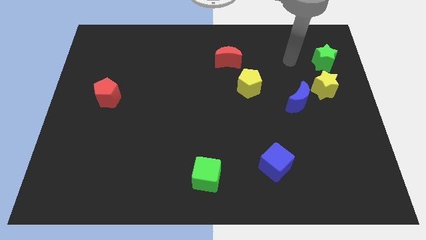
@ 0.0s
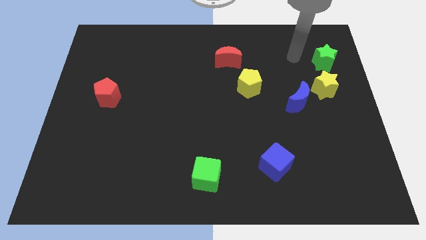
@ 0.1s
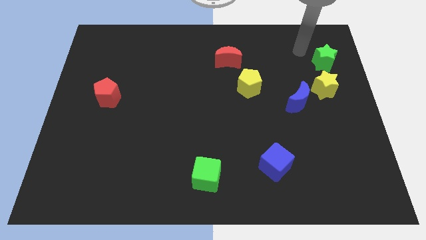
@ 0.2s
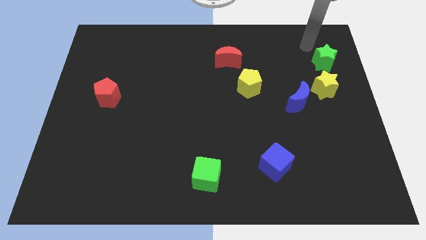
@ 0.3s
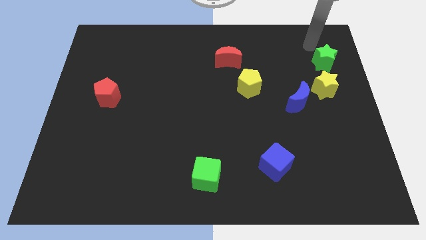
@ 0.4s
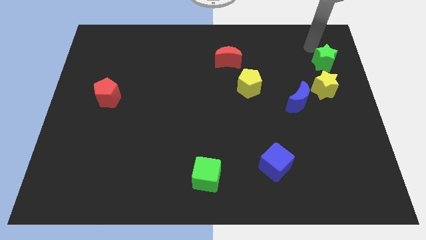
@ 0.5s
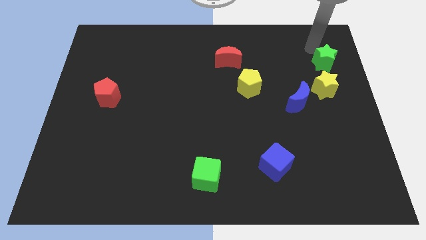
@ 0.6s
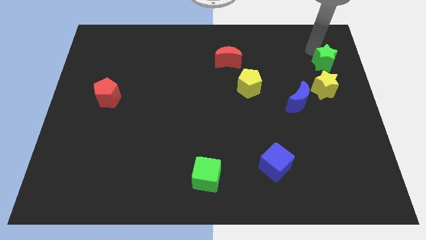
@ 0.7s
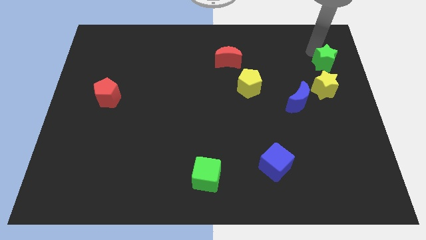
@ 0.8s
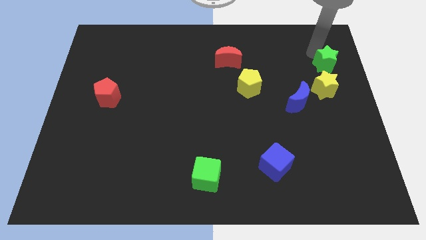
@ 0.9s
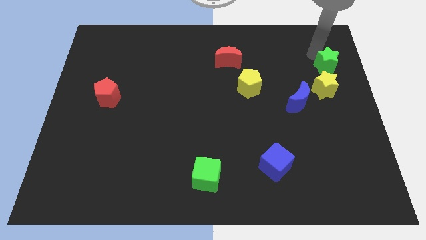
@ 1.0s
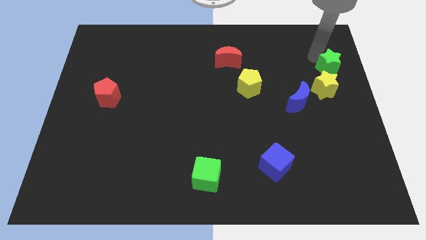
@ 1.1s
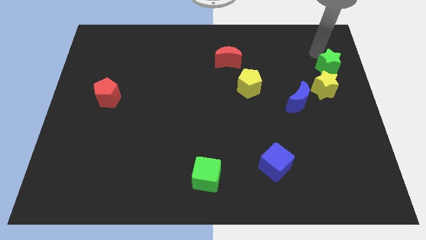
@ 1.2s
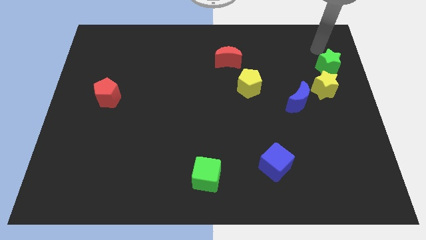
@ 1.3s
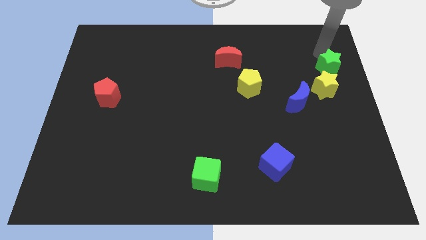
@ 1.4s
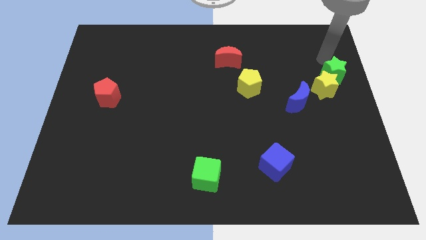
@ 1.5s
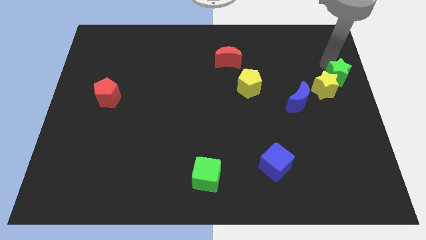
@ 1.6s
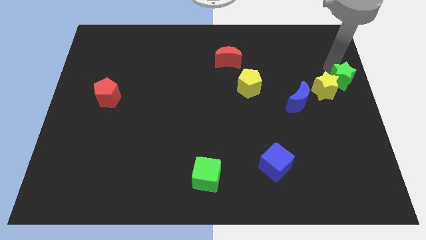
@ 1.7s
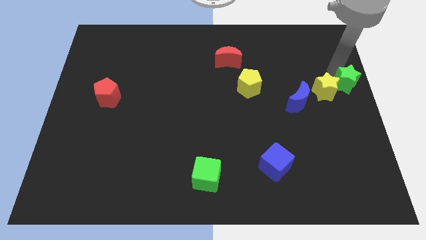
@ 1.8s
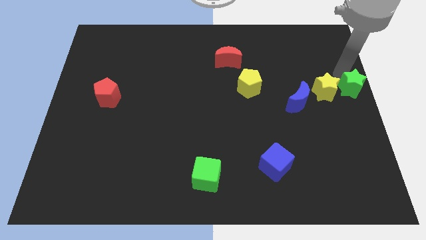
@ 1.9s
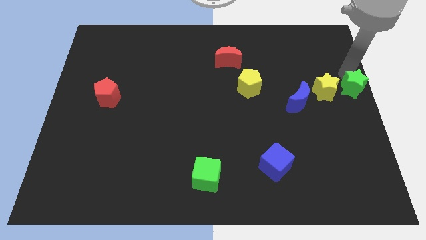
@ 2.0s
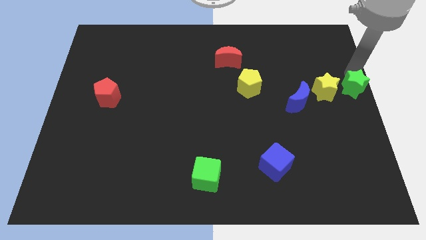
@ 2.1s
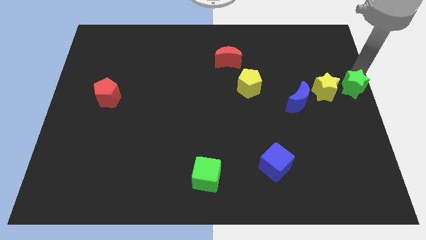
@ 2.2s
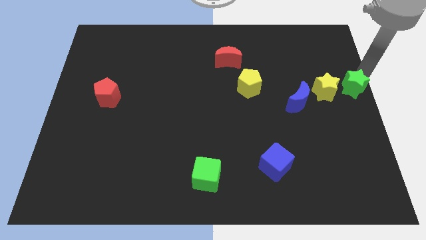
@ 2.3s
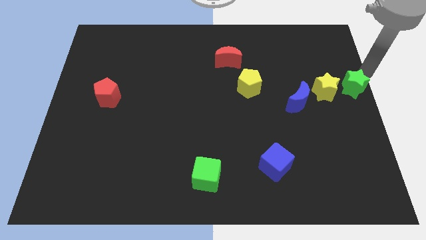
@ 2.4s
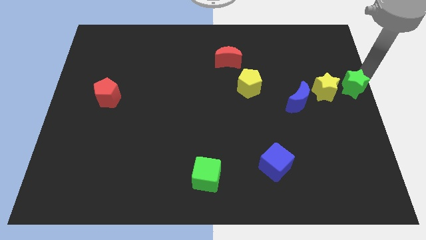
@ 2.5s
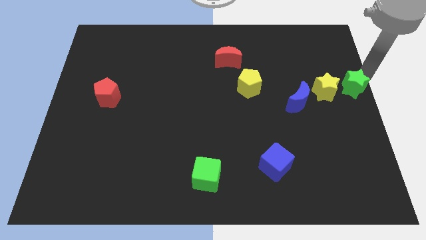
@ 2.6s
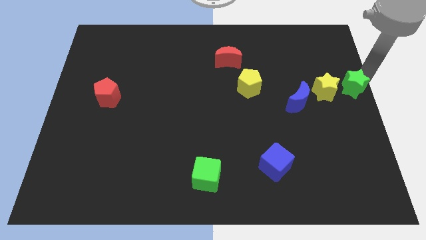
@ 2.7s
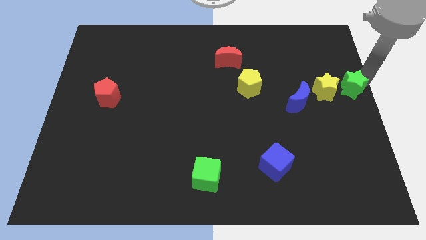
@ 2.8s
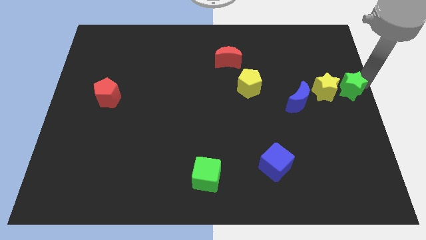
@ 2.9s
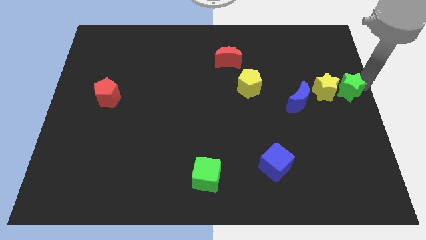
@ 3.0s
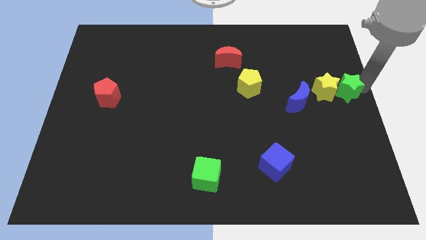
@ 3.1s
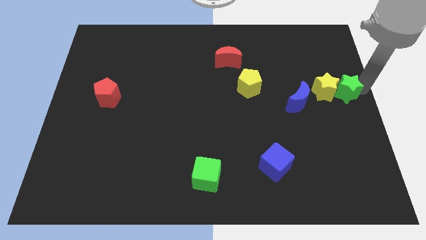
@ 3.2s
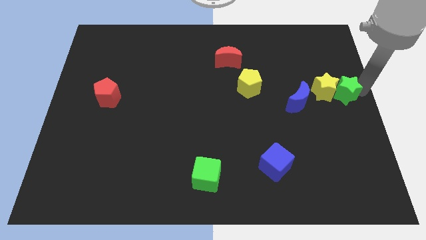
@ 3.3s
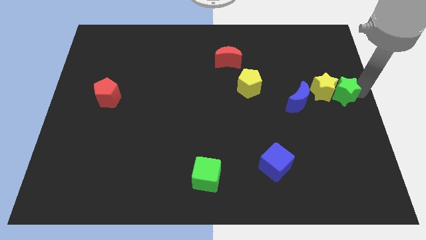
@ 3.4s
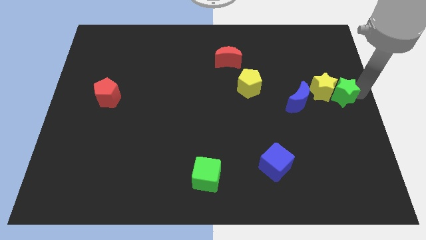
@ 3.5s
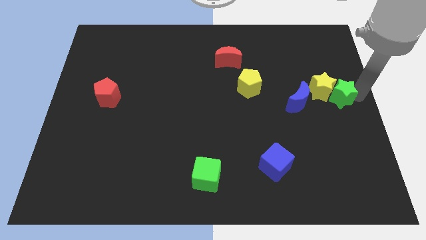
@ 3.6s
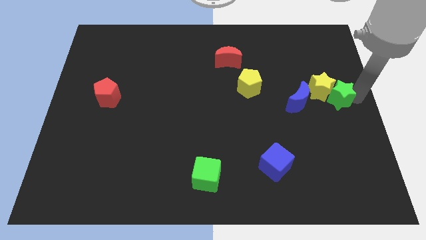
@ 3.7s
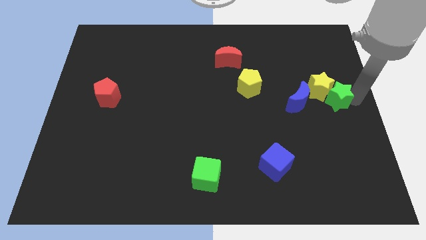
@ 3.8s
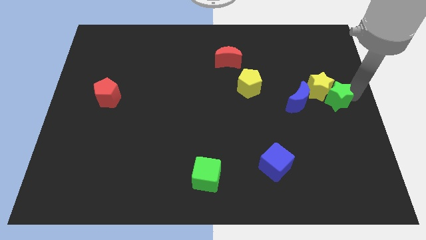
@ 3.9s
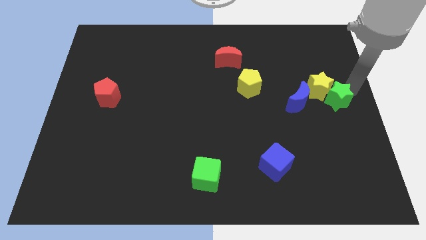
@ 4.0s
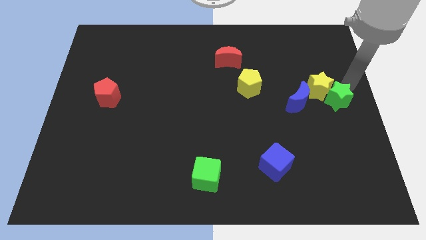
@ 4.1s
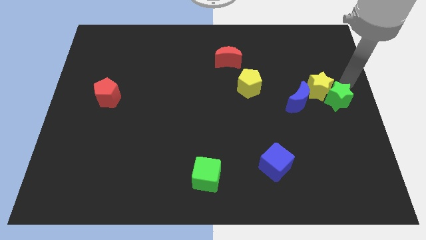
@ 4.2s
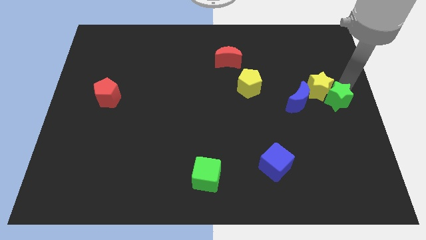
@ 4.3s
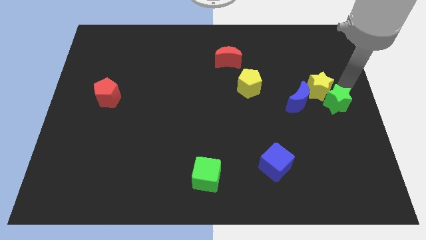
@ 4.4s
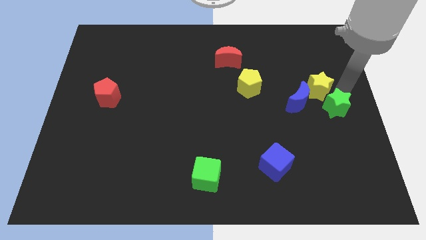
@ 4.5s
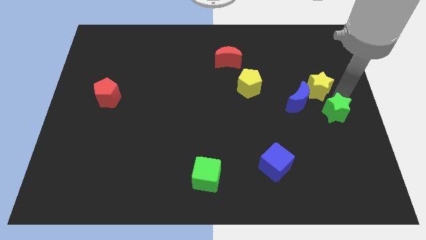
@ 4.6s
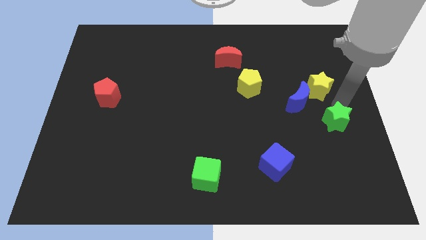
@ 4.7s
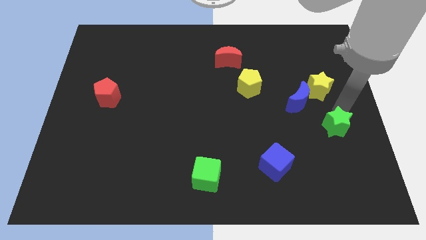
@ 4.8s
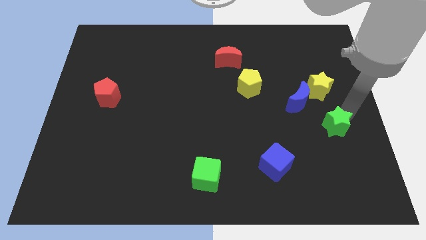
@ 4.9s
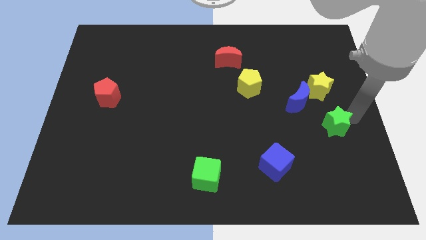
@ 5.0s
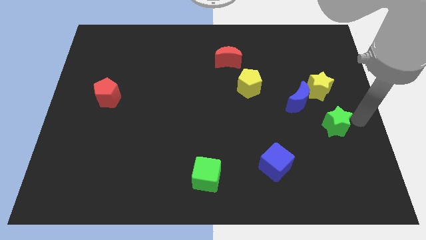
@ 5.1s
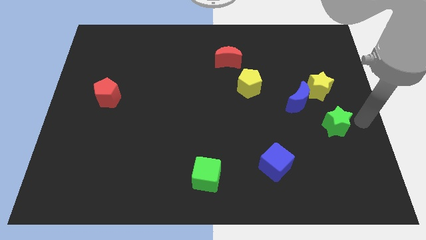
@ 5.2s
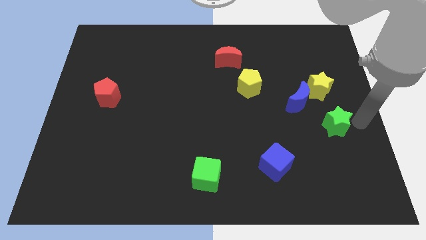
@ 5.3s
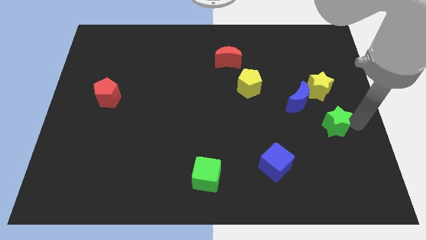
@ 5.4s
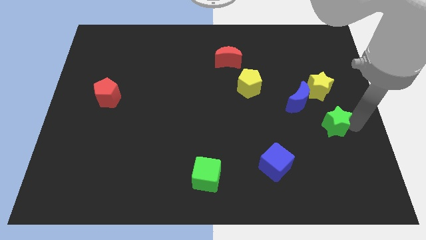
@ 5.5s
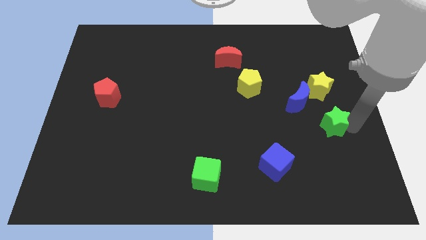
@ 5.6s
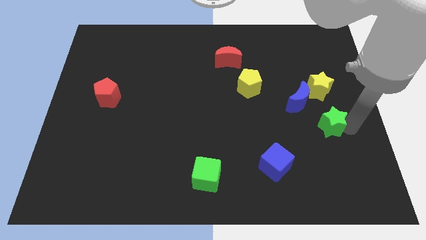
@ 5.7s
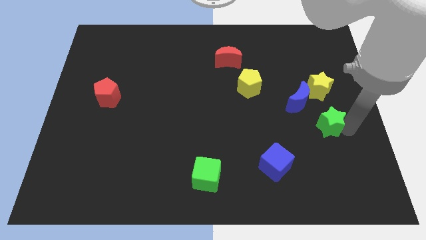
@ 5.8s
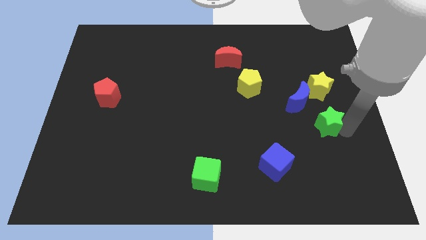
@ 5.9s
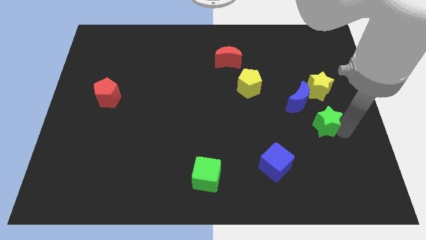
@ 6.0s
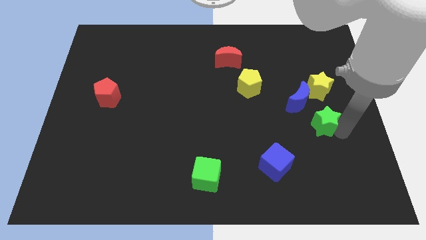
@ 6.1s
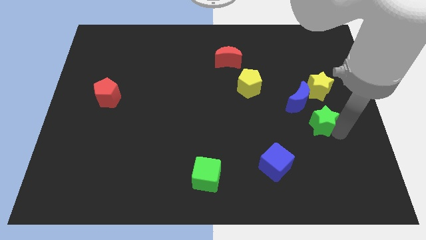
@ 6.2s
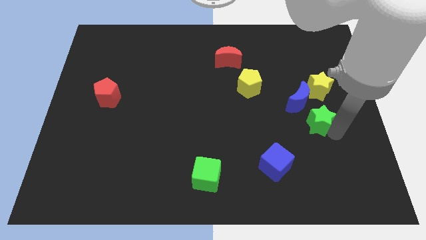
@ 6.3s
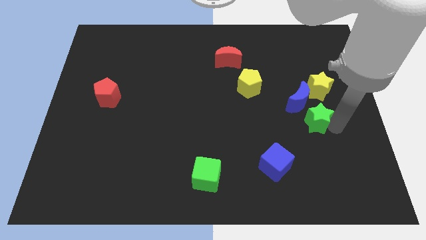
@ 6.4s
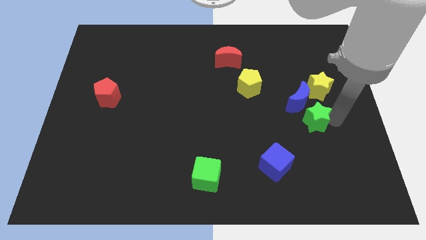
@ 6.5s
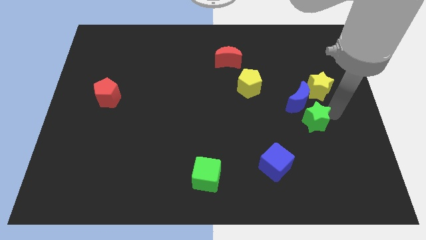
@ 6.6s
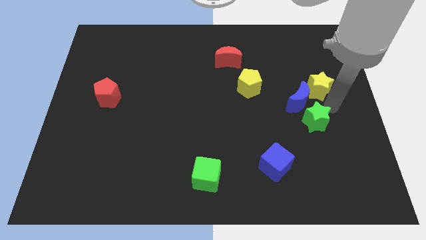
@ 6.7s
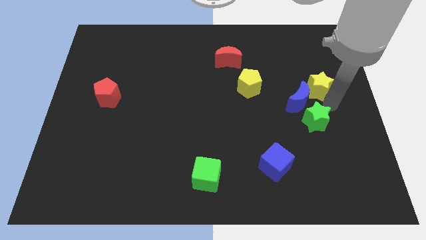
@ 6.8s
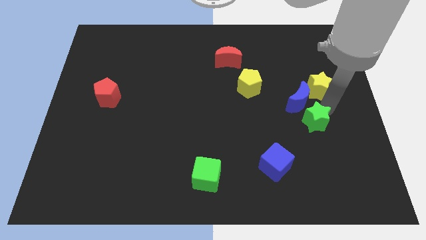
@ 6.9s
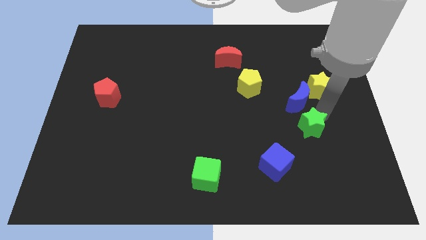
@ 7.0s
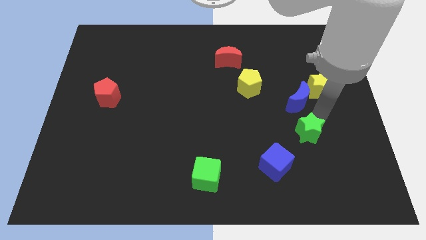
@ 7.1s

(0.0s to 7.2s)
push the green star to the top right side of the blue cube
